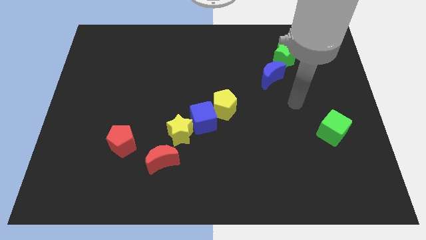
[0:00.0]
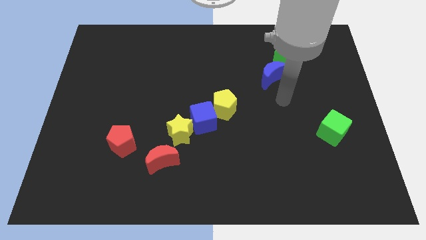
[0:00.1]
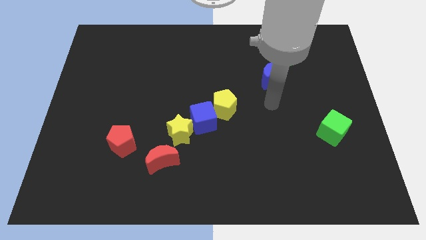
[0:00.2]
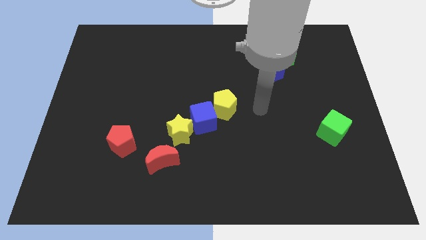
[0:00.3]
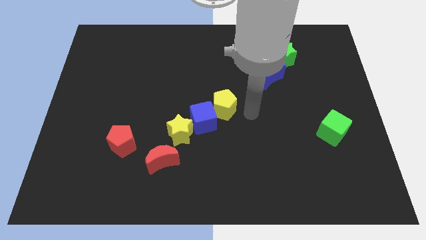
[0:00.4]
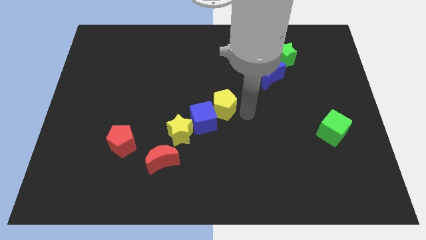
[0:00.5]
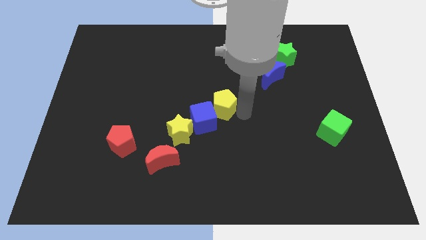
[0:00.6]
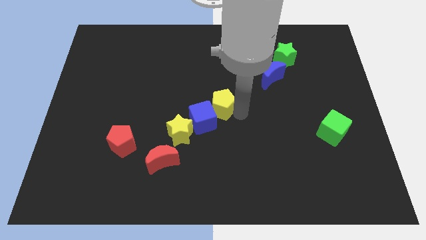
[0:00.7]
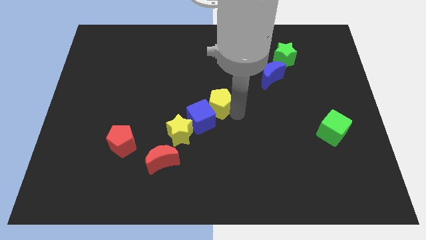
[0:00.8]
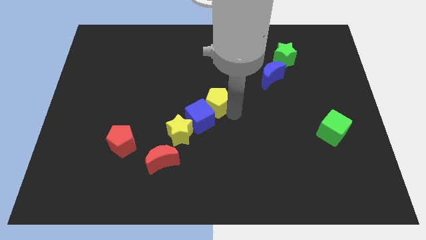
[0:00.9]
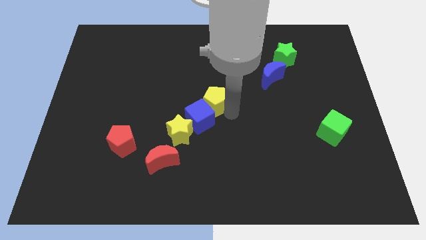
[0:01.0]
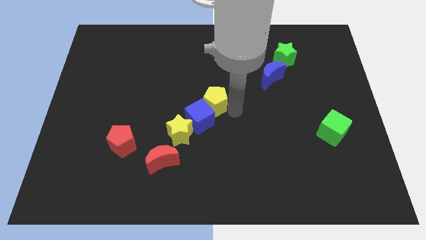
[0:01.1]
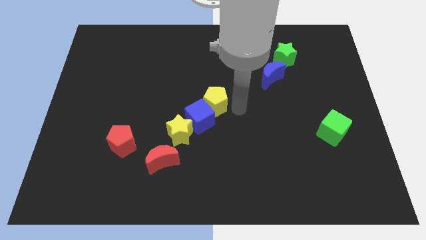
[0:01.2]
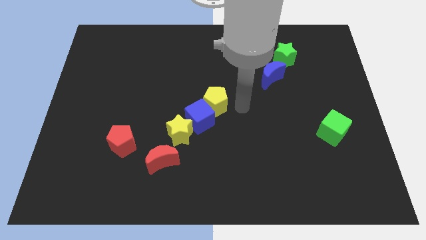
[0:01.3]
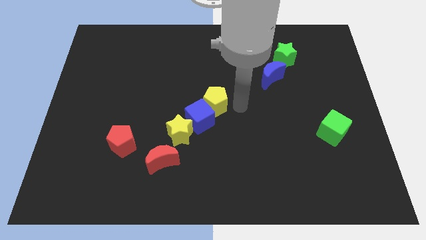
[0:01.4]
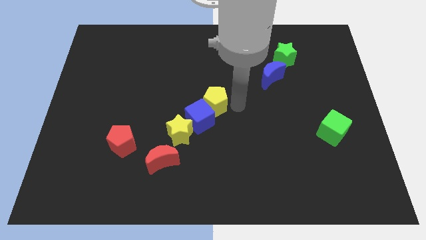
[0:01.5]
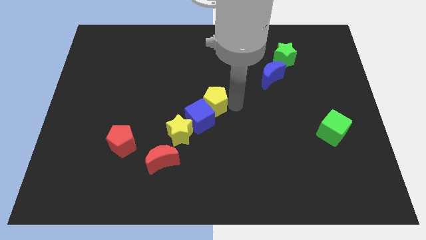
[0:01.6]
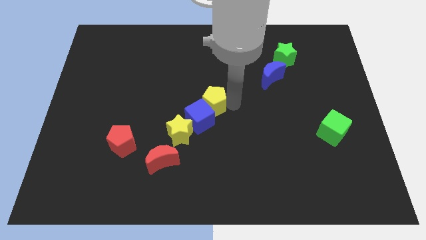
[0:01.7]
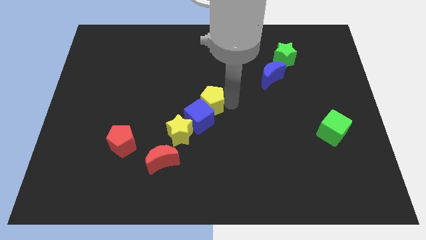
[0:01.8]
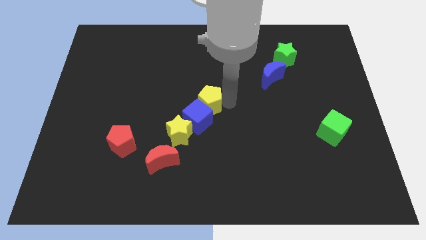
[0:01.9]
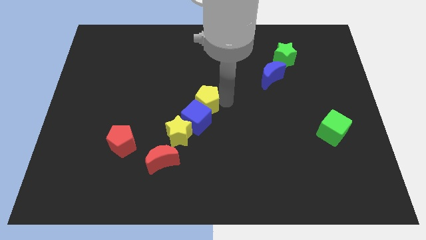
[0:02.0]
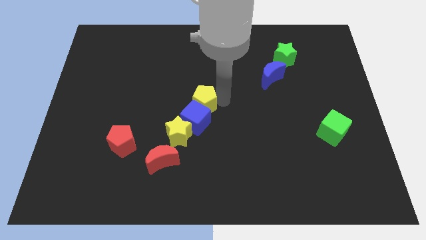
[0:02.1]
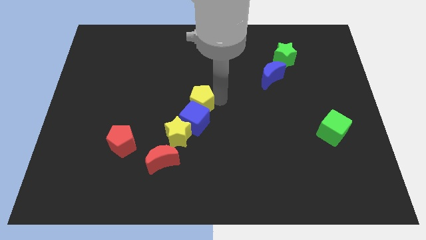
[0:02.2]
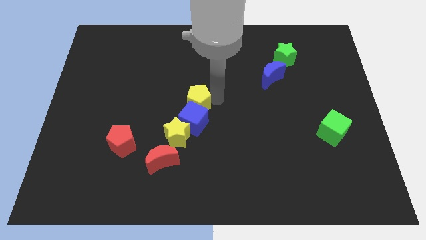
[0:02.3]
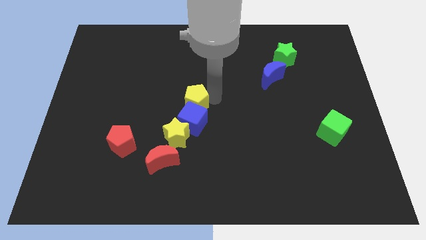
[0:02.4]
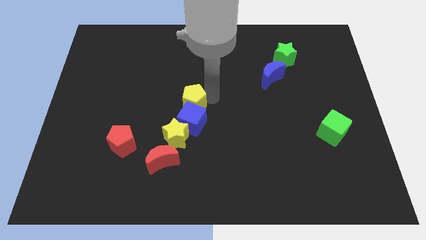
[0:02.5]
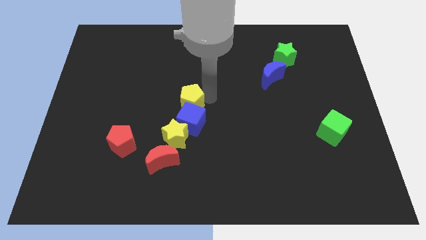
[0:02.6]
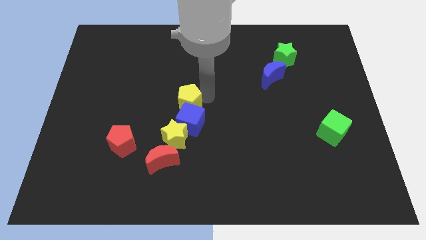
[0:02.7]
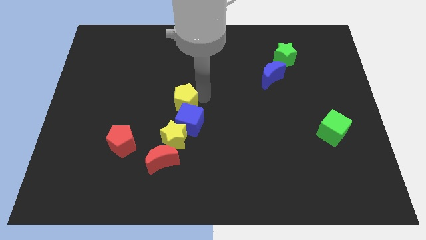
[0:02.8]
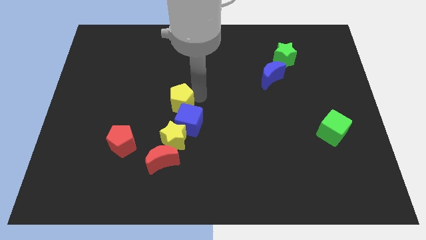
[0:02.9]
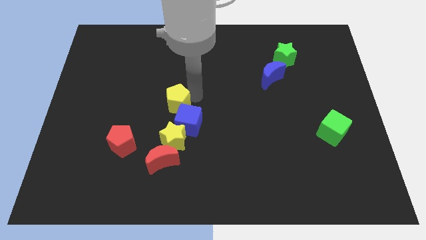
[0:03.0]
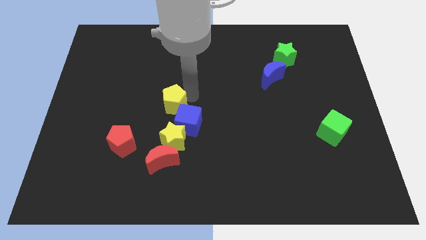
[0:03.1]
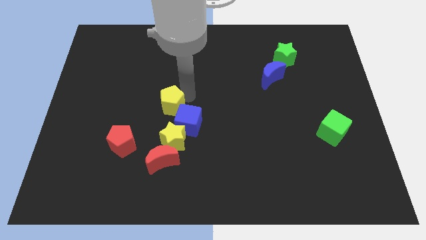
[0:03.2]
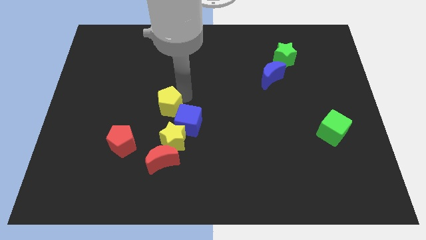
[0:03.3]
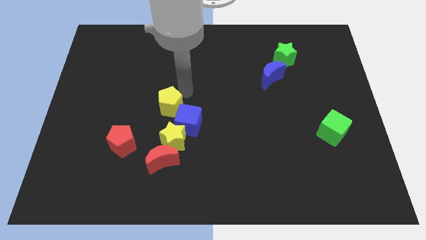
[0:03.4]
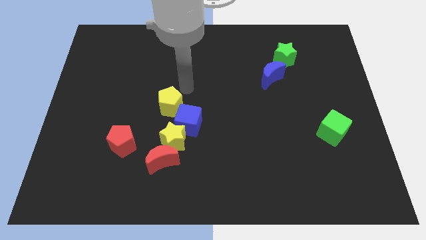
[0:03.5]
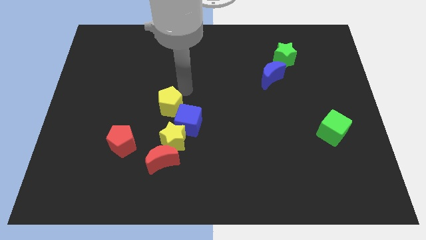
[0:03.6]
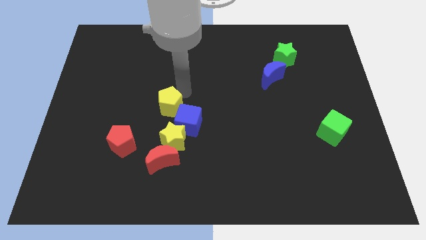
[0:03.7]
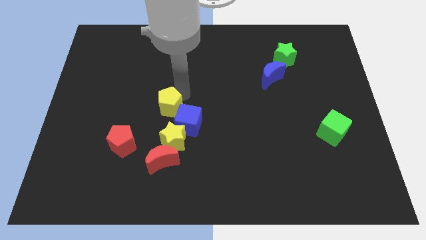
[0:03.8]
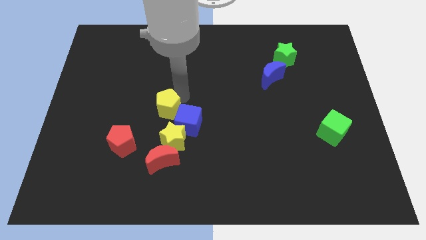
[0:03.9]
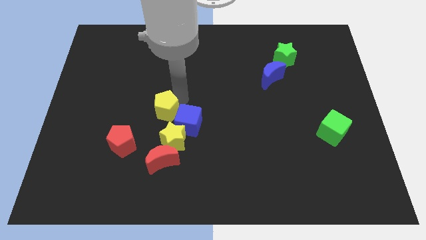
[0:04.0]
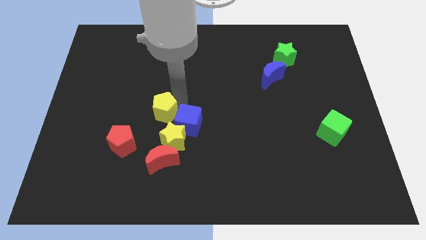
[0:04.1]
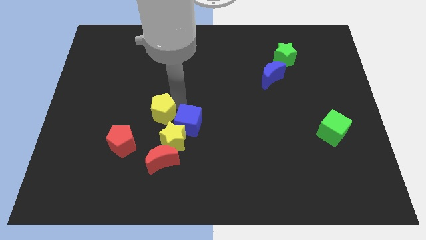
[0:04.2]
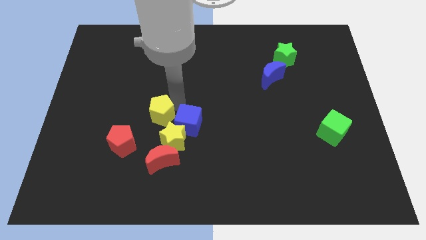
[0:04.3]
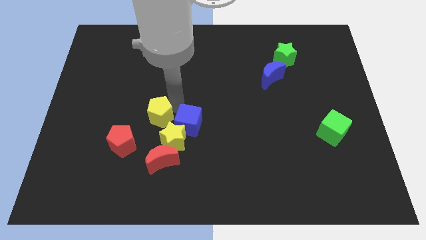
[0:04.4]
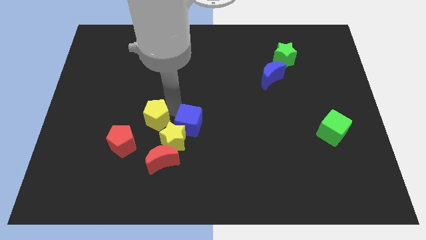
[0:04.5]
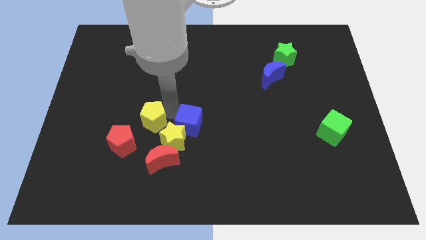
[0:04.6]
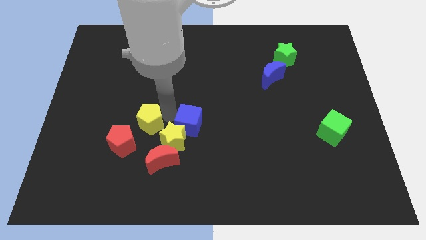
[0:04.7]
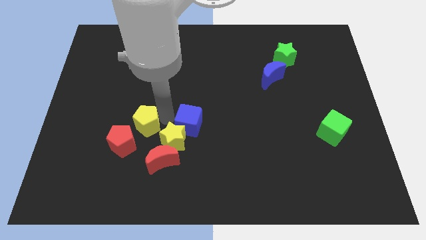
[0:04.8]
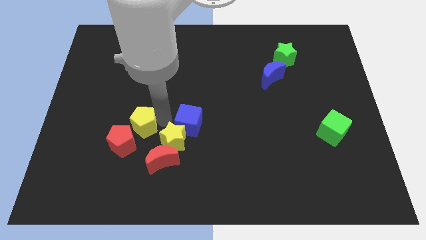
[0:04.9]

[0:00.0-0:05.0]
push the yellow pentagon towards the red pentagon

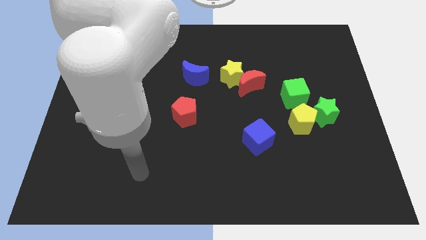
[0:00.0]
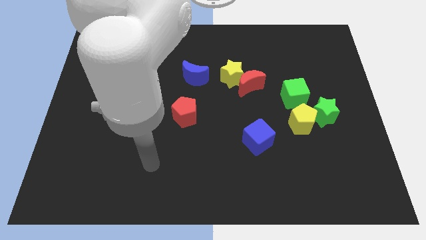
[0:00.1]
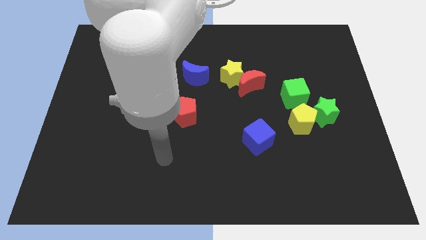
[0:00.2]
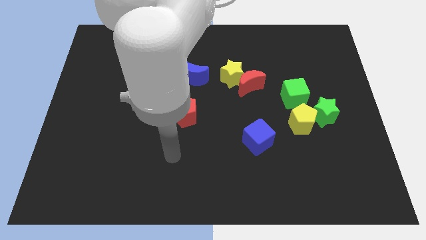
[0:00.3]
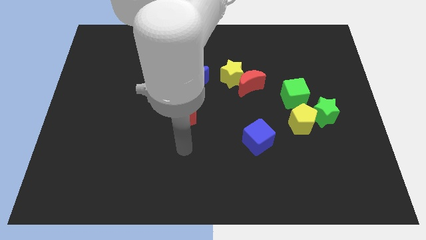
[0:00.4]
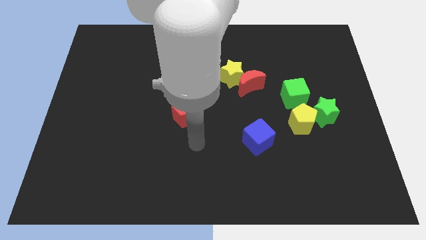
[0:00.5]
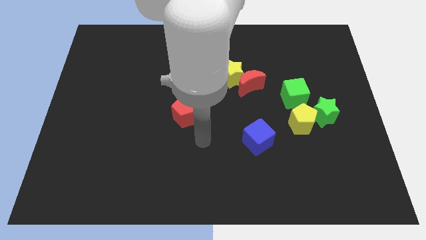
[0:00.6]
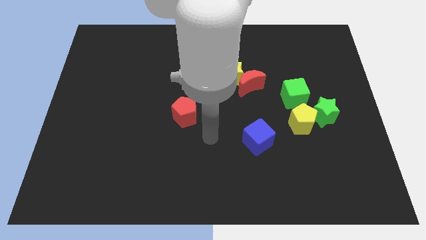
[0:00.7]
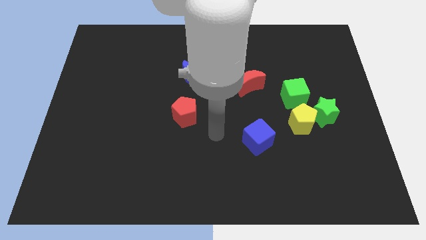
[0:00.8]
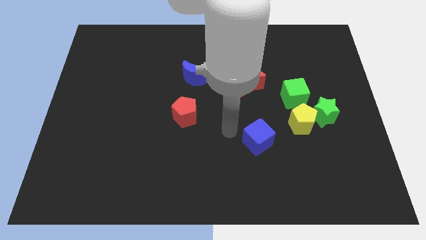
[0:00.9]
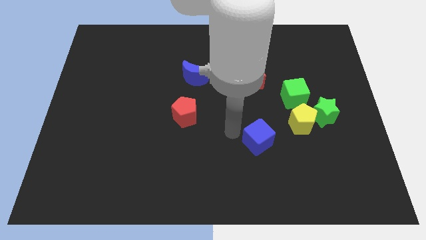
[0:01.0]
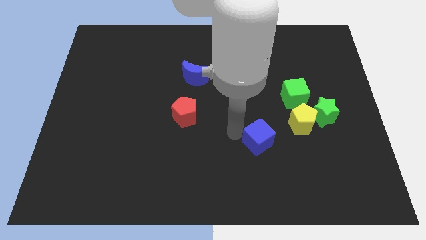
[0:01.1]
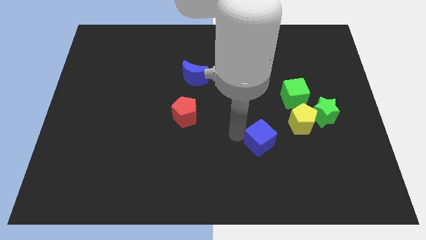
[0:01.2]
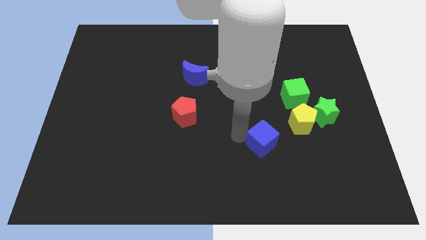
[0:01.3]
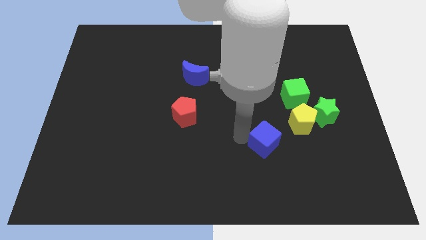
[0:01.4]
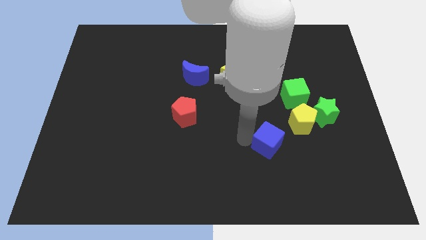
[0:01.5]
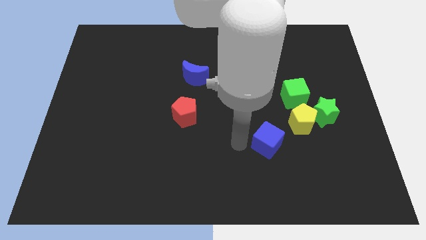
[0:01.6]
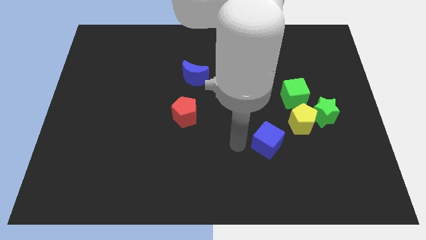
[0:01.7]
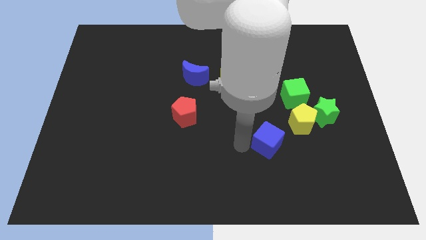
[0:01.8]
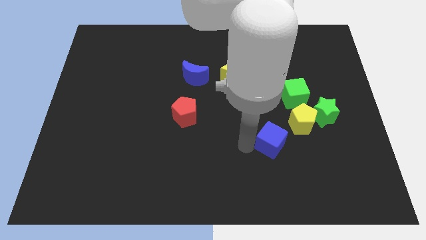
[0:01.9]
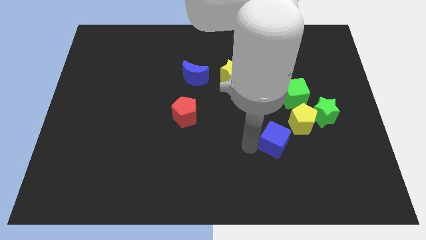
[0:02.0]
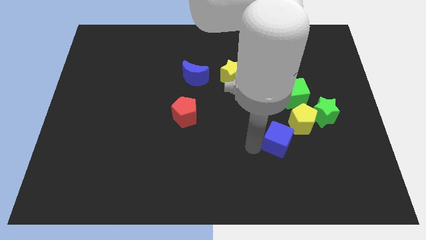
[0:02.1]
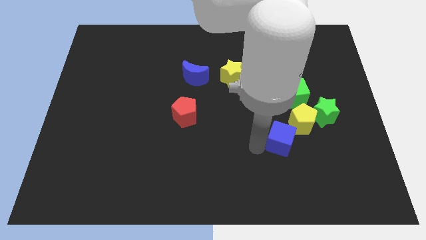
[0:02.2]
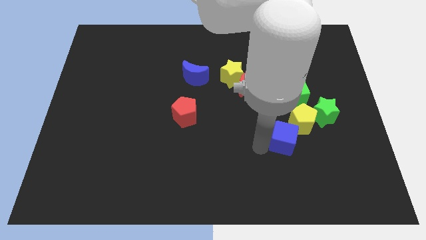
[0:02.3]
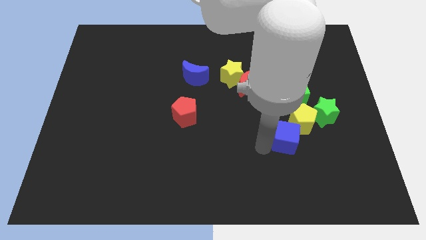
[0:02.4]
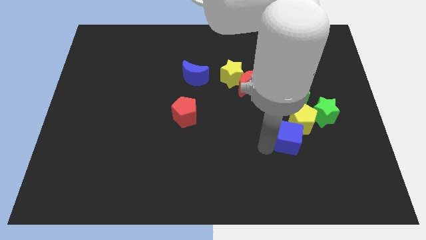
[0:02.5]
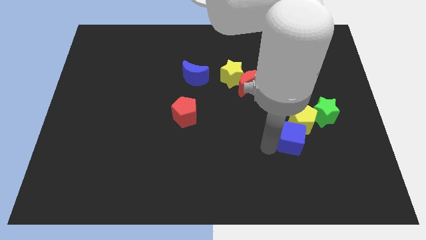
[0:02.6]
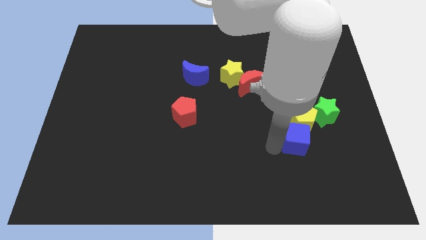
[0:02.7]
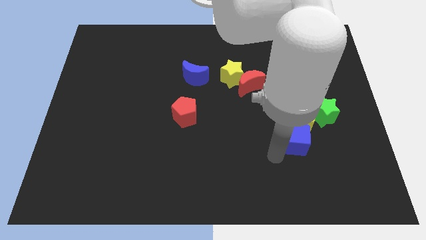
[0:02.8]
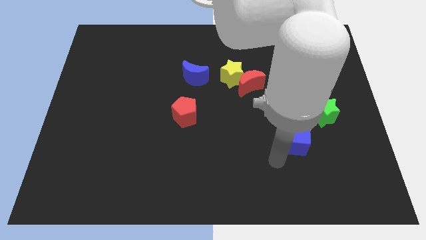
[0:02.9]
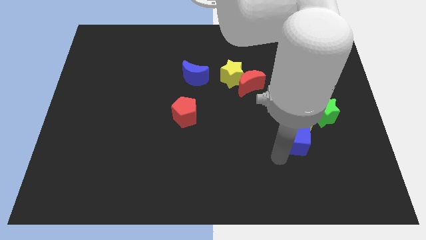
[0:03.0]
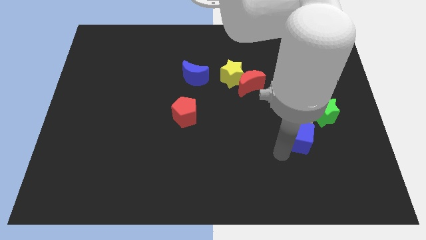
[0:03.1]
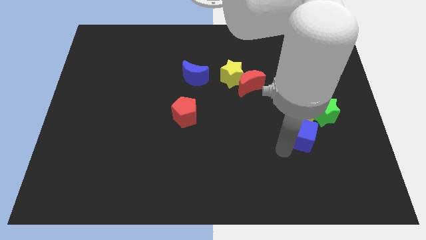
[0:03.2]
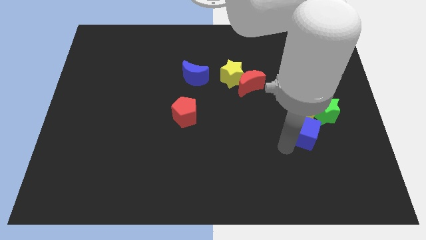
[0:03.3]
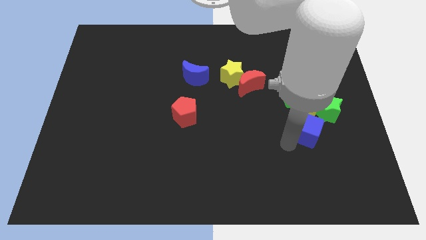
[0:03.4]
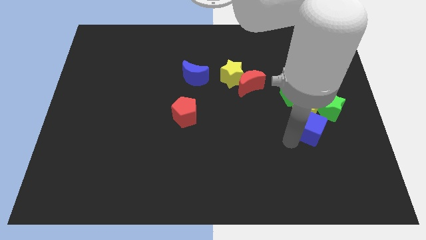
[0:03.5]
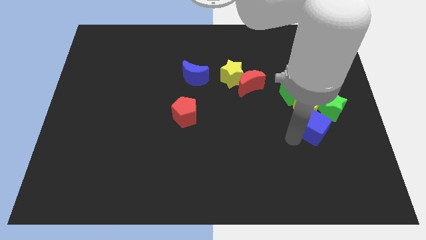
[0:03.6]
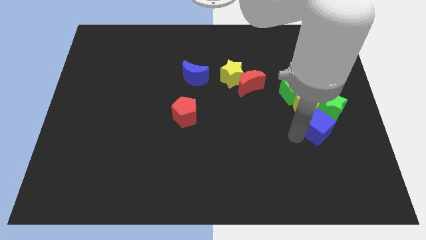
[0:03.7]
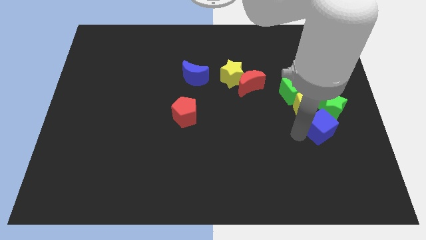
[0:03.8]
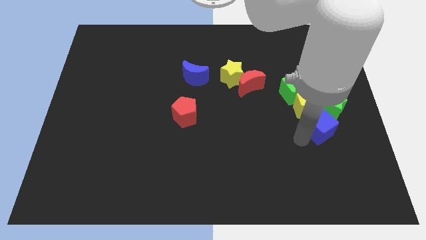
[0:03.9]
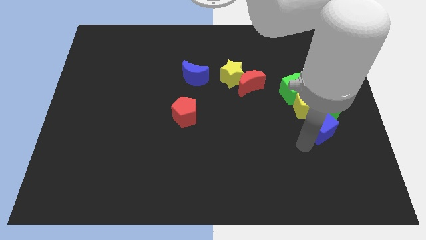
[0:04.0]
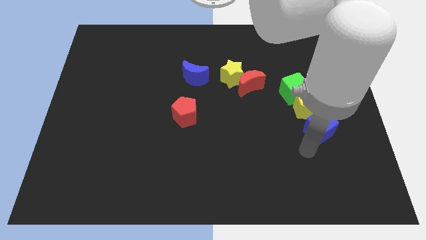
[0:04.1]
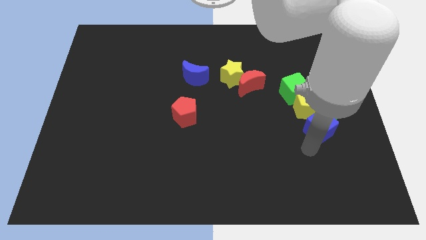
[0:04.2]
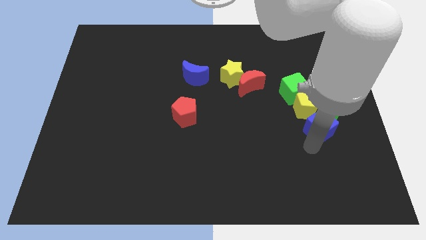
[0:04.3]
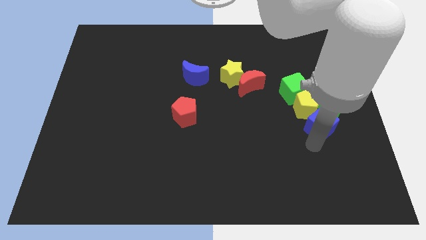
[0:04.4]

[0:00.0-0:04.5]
slide the blue cube close to the green star
